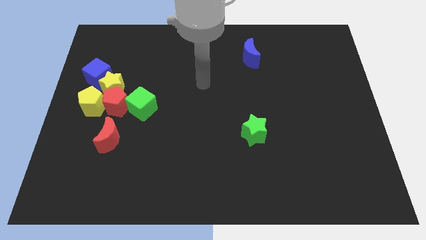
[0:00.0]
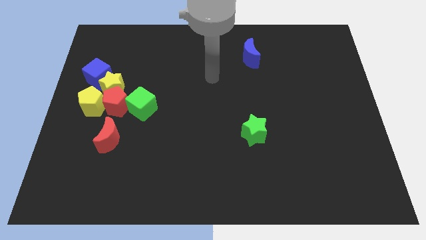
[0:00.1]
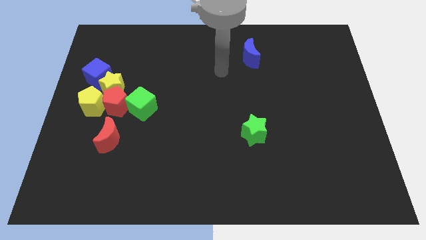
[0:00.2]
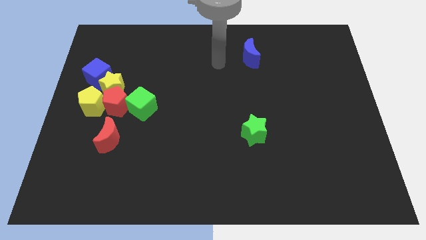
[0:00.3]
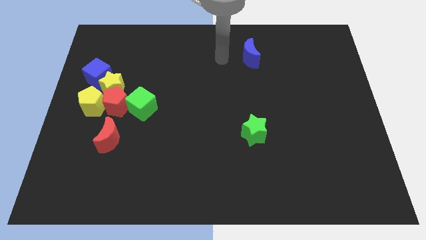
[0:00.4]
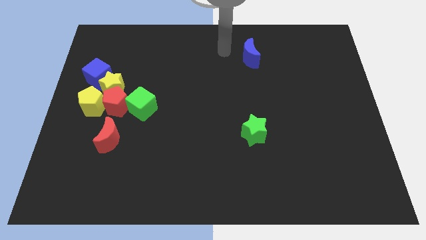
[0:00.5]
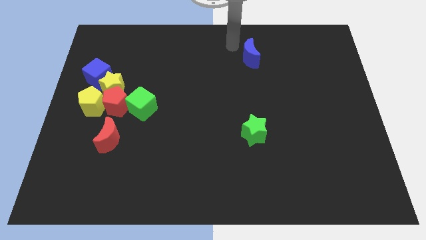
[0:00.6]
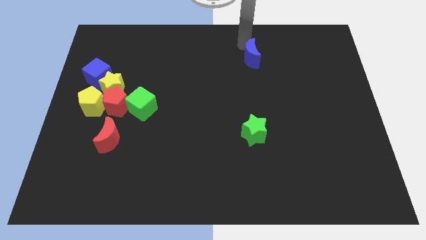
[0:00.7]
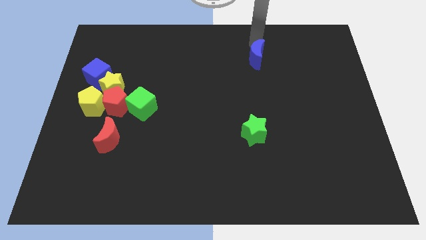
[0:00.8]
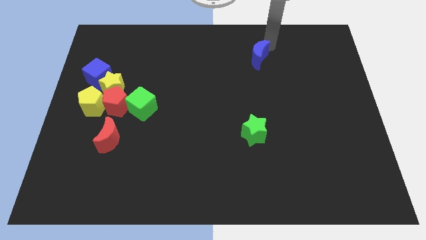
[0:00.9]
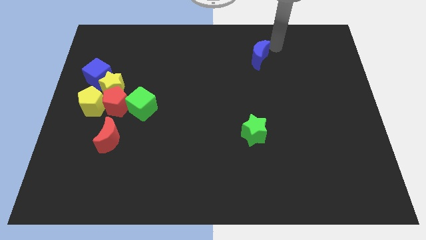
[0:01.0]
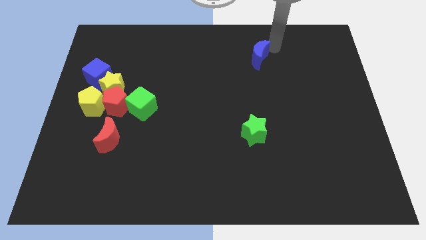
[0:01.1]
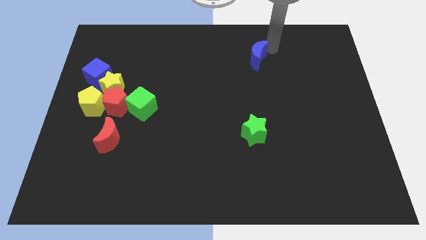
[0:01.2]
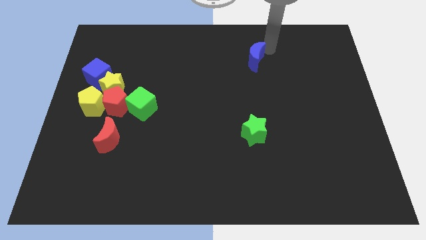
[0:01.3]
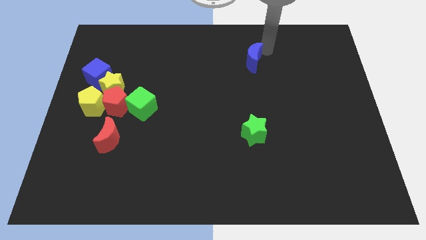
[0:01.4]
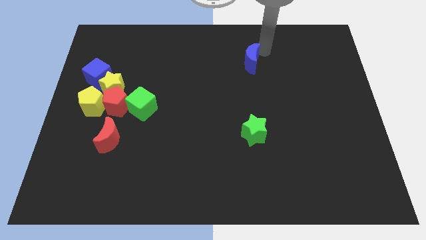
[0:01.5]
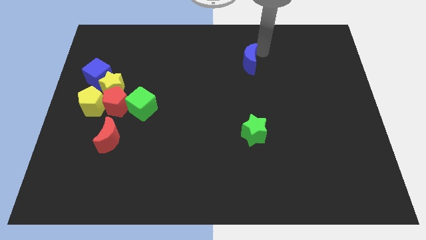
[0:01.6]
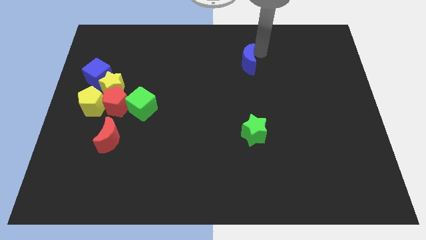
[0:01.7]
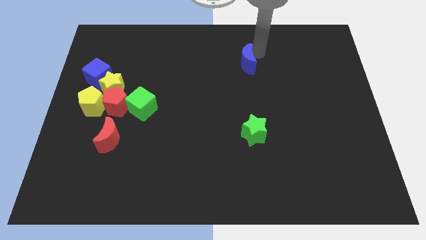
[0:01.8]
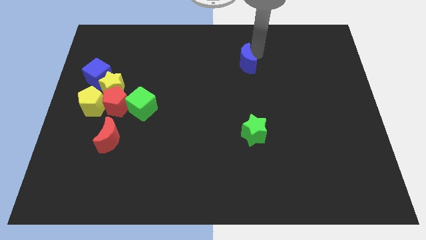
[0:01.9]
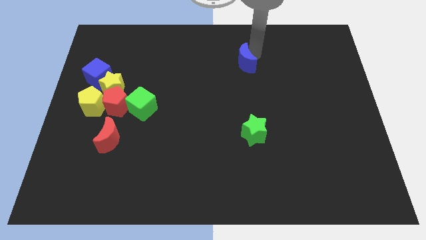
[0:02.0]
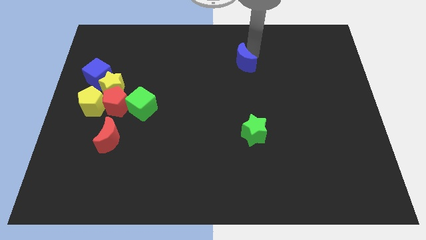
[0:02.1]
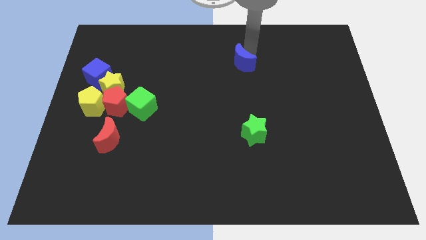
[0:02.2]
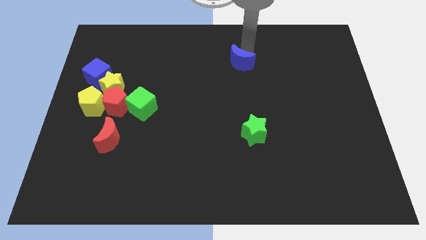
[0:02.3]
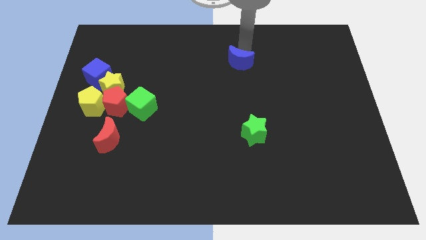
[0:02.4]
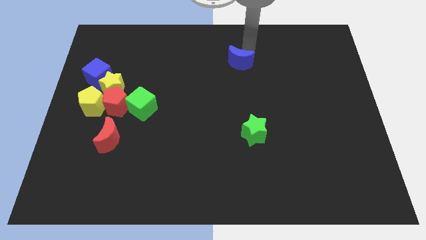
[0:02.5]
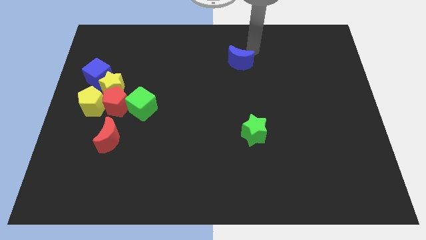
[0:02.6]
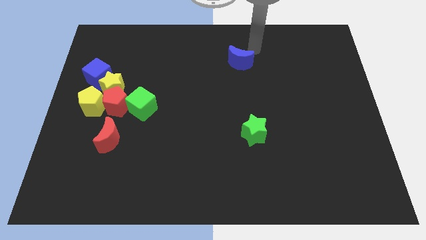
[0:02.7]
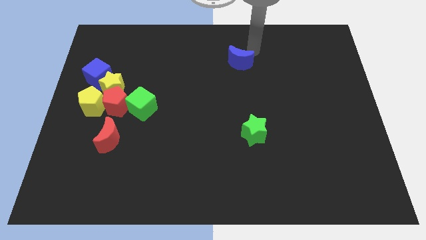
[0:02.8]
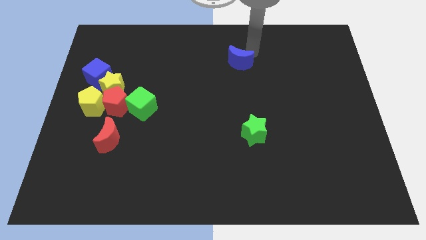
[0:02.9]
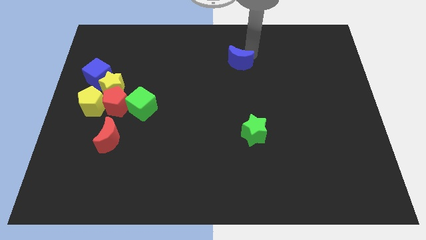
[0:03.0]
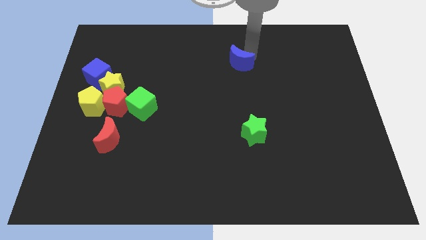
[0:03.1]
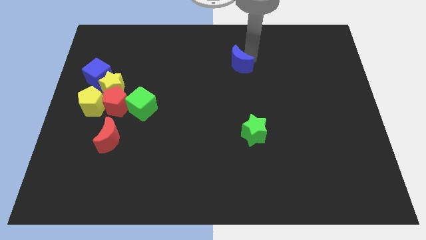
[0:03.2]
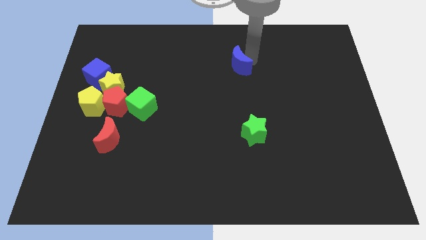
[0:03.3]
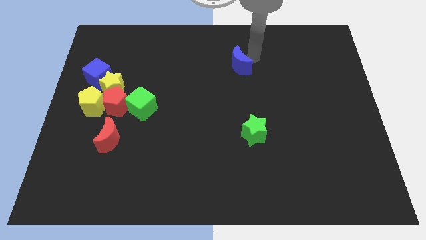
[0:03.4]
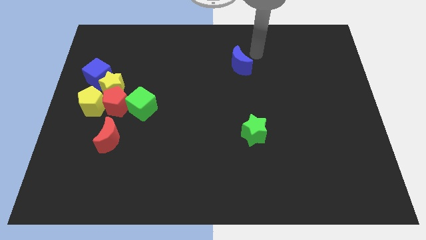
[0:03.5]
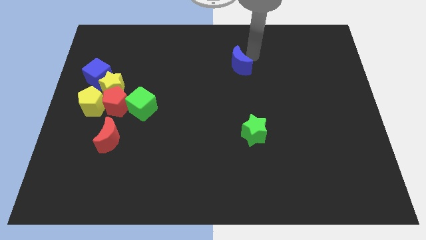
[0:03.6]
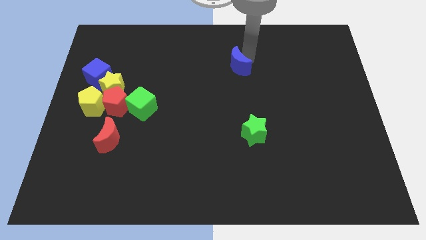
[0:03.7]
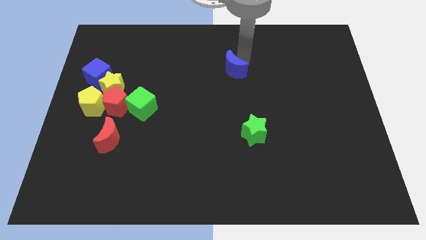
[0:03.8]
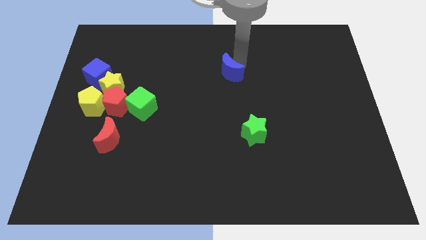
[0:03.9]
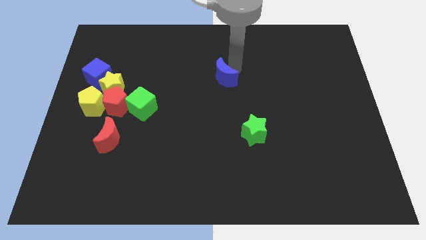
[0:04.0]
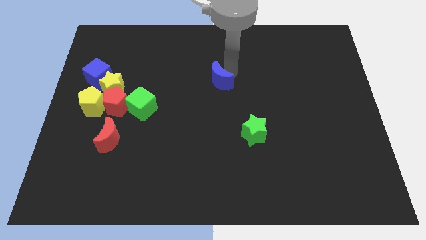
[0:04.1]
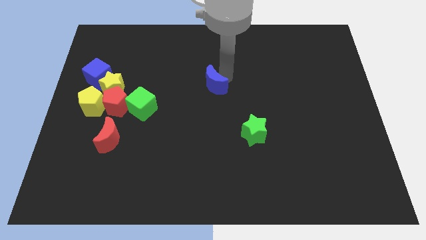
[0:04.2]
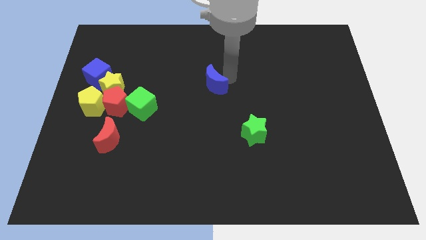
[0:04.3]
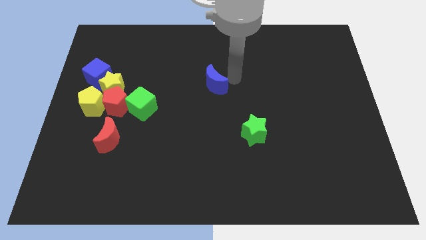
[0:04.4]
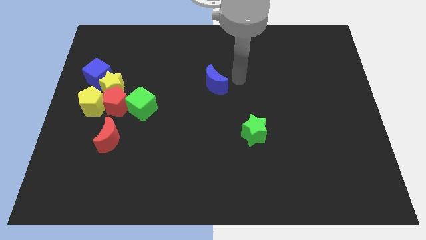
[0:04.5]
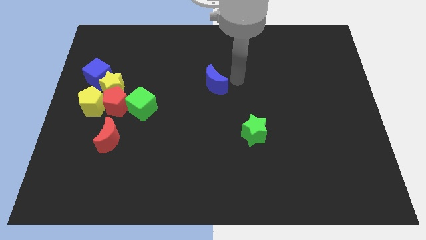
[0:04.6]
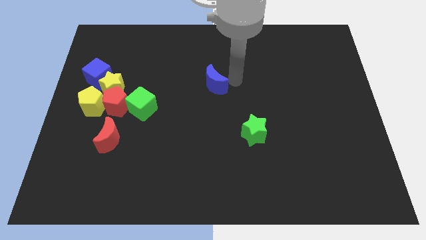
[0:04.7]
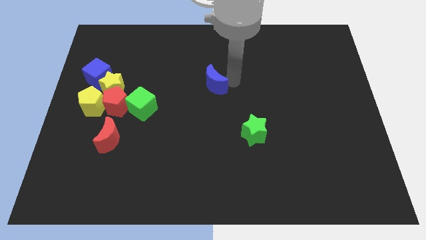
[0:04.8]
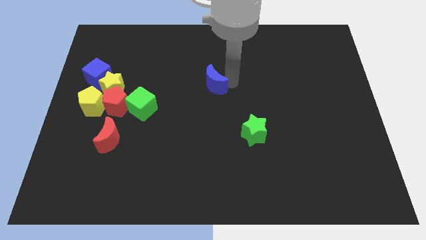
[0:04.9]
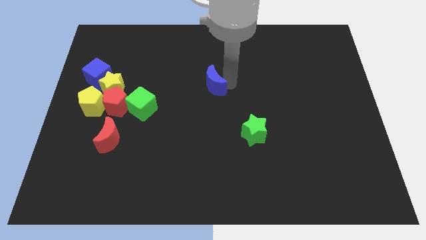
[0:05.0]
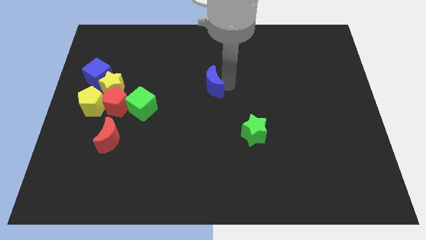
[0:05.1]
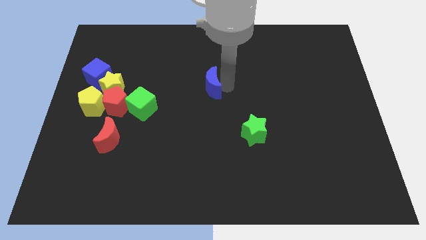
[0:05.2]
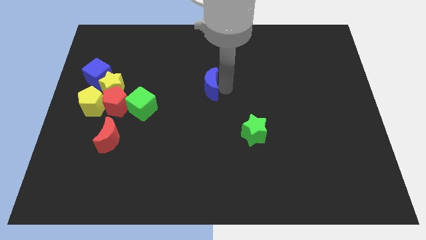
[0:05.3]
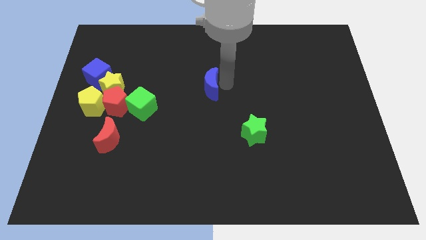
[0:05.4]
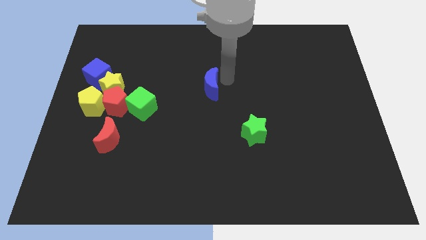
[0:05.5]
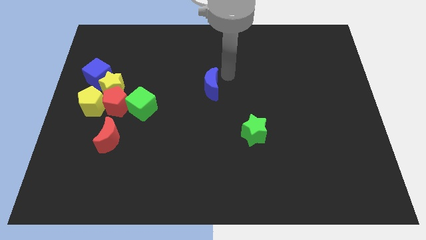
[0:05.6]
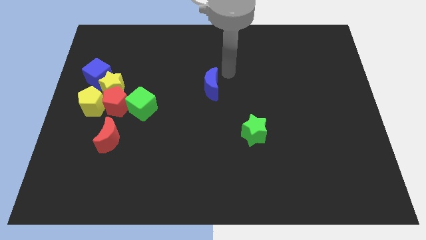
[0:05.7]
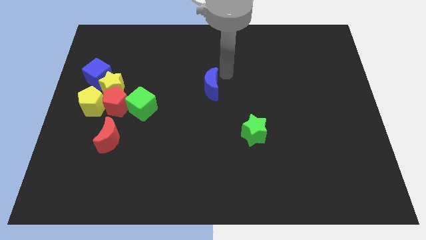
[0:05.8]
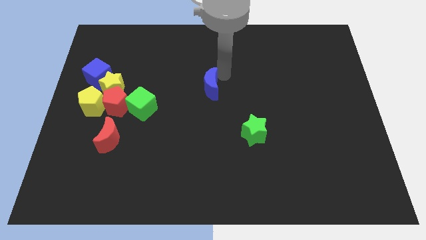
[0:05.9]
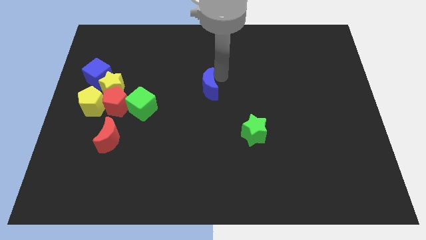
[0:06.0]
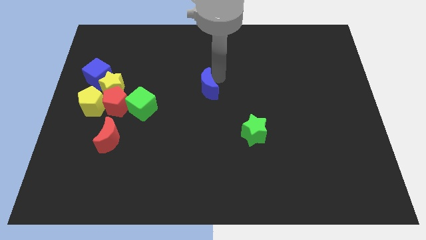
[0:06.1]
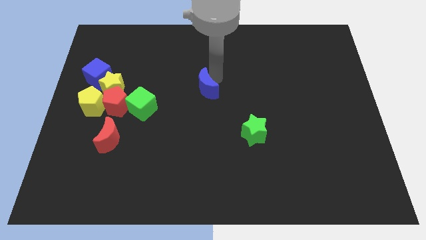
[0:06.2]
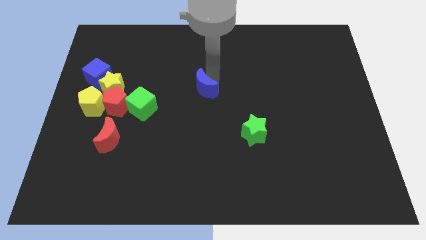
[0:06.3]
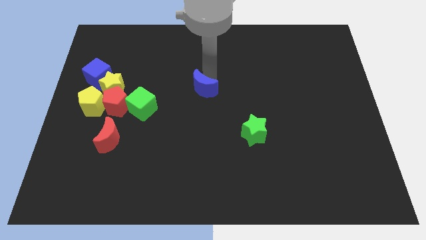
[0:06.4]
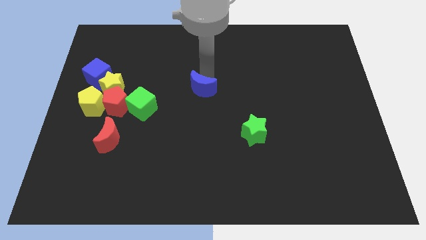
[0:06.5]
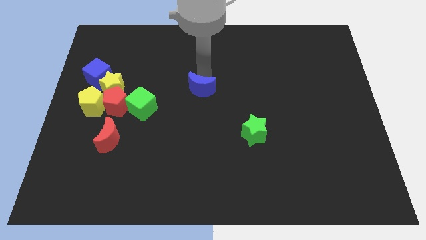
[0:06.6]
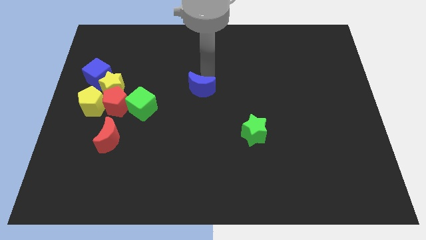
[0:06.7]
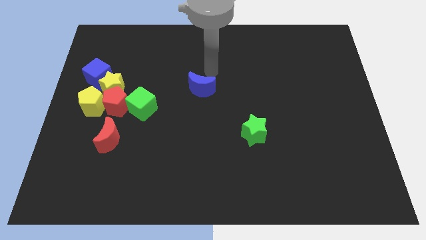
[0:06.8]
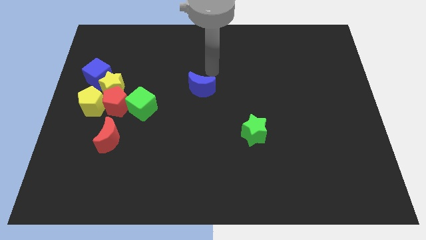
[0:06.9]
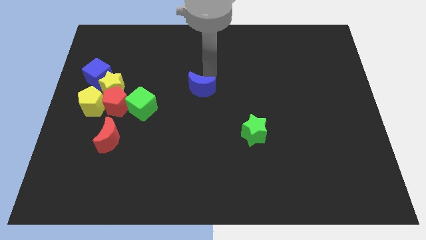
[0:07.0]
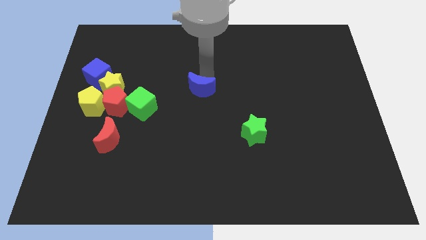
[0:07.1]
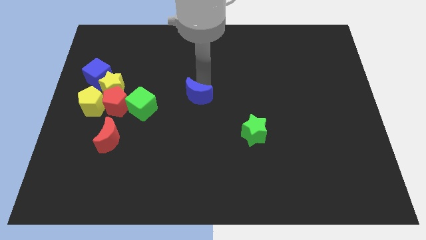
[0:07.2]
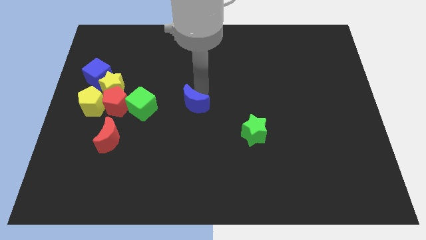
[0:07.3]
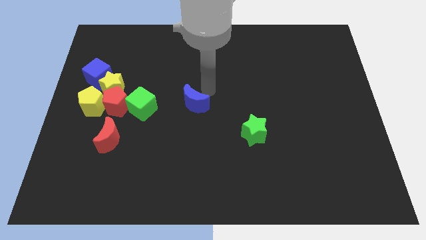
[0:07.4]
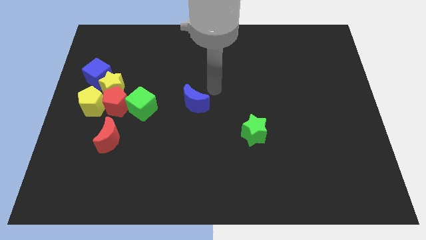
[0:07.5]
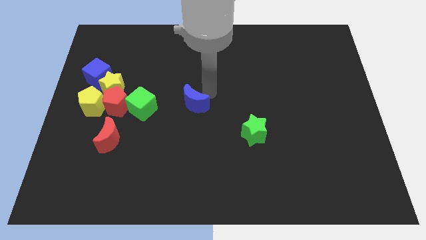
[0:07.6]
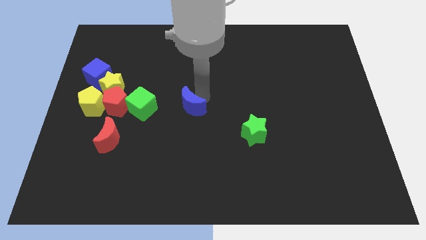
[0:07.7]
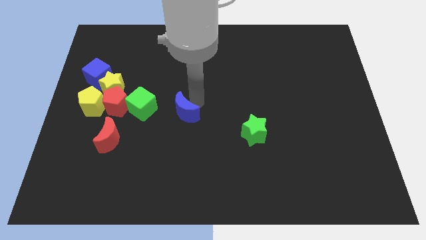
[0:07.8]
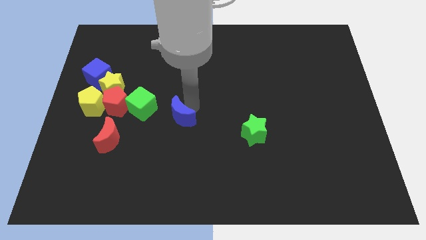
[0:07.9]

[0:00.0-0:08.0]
move the blue moon to the bottom right of the green cube
